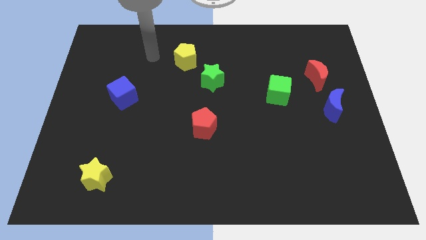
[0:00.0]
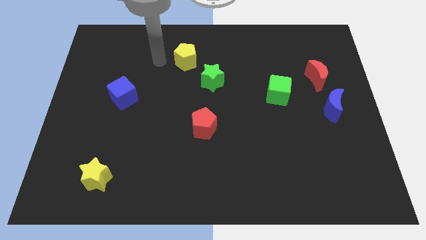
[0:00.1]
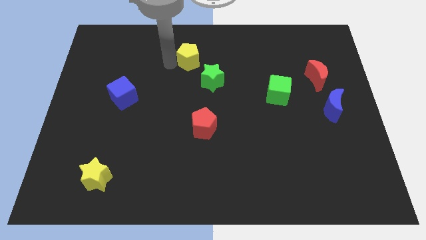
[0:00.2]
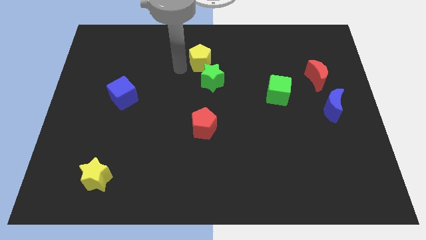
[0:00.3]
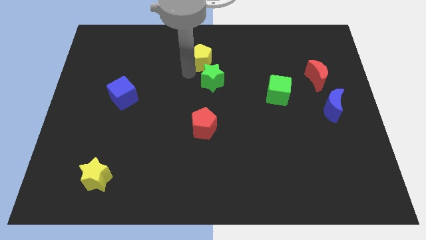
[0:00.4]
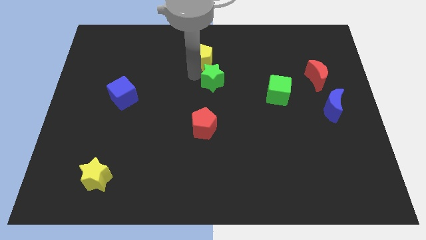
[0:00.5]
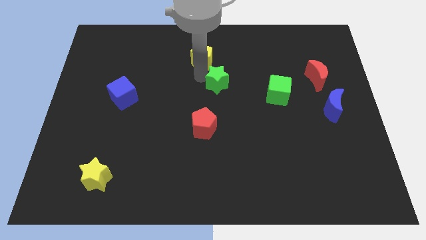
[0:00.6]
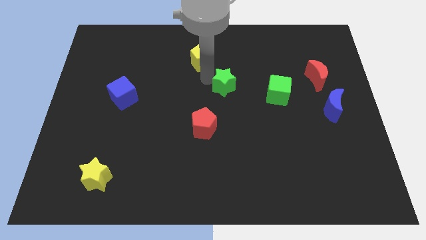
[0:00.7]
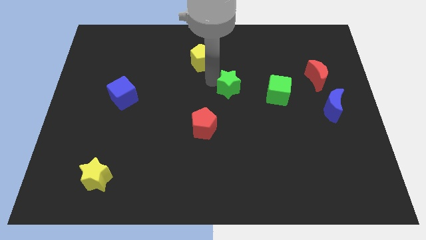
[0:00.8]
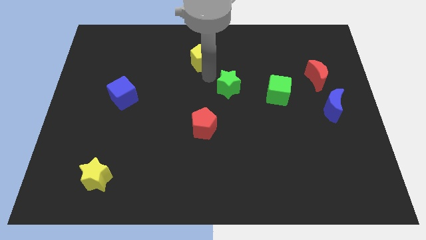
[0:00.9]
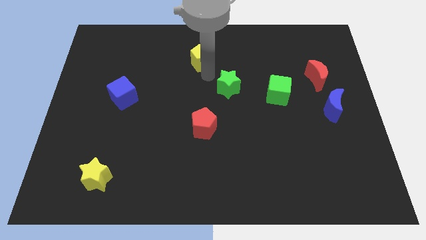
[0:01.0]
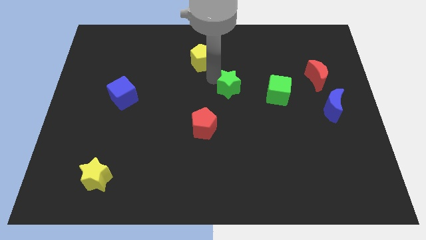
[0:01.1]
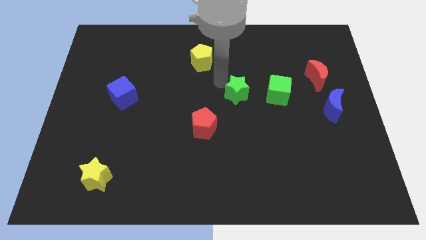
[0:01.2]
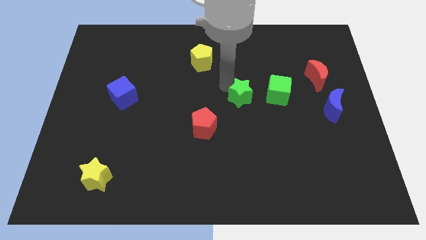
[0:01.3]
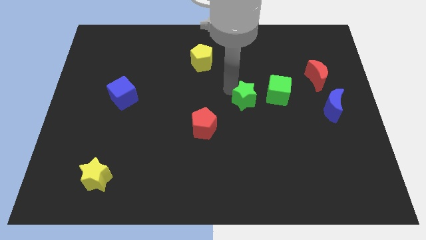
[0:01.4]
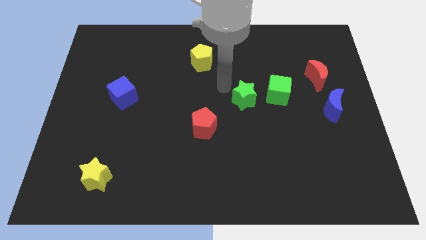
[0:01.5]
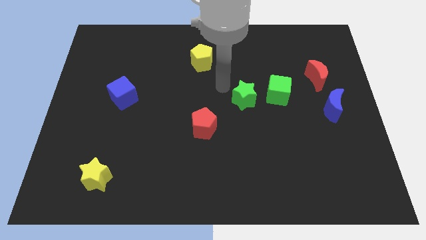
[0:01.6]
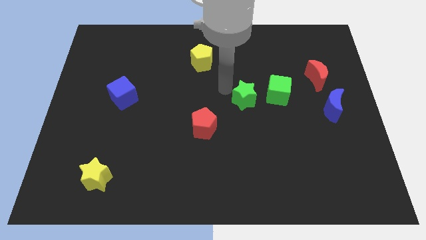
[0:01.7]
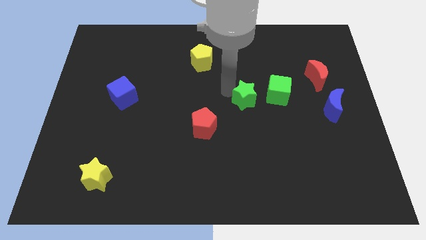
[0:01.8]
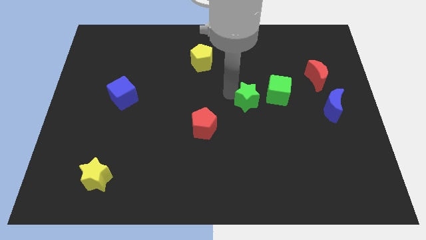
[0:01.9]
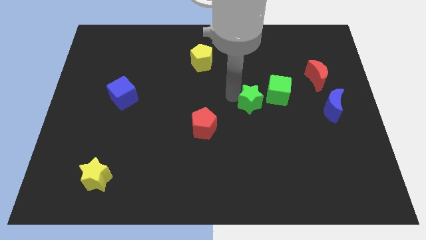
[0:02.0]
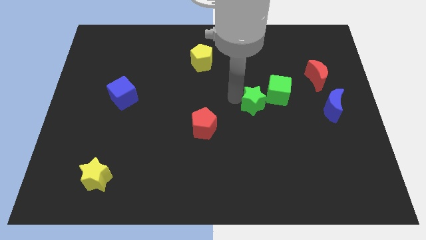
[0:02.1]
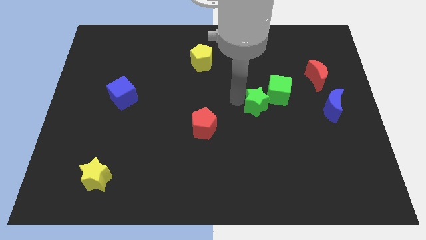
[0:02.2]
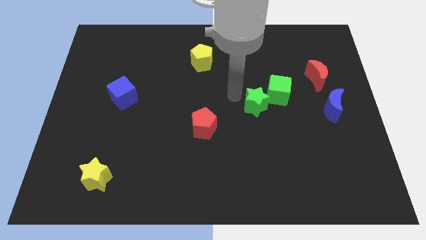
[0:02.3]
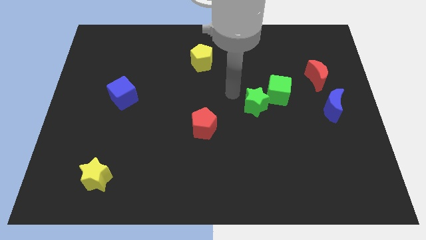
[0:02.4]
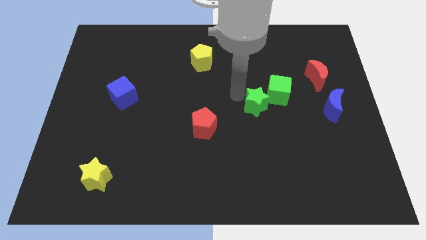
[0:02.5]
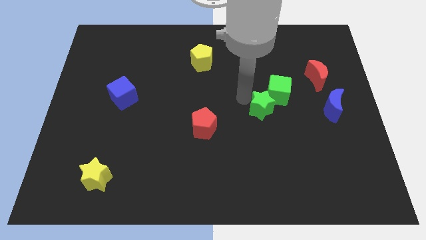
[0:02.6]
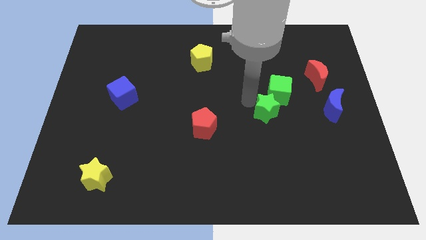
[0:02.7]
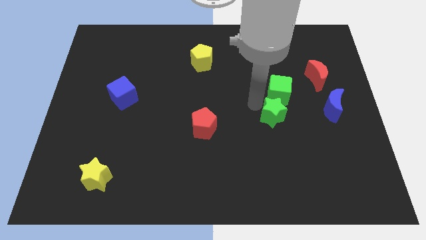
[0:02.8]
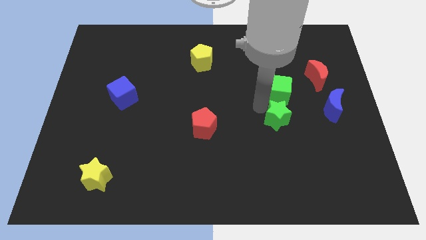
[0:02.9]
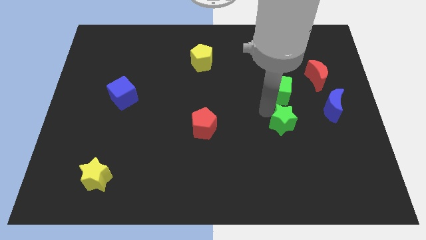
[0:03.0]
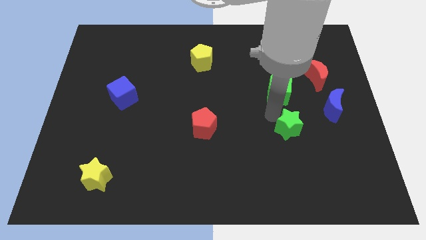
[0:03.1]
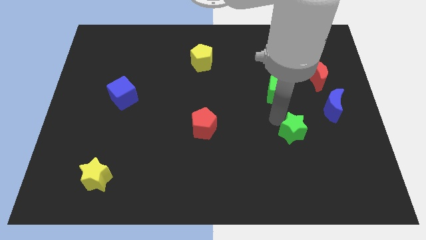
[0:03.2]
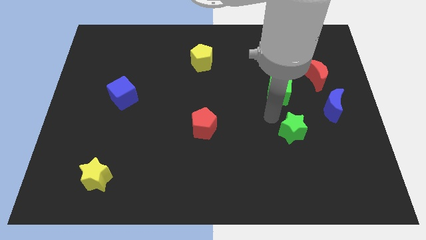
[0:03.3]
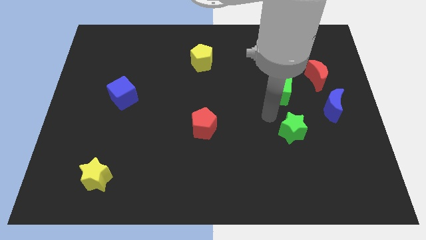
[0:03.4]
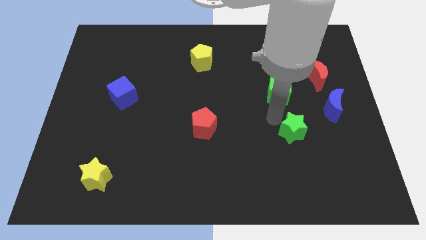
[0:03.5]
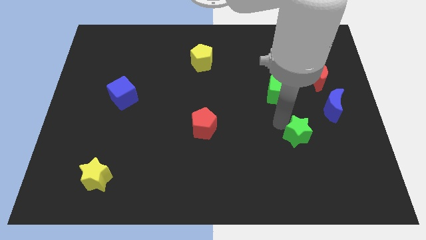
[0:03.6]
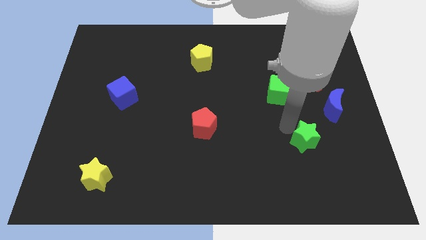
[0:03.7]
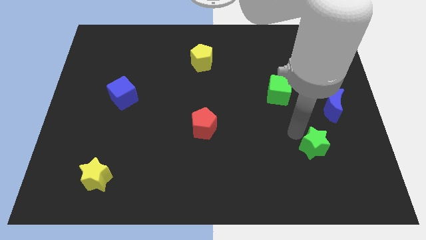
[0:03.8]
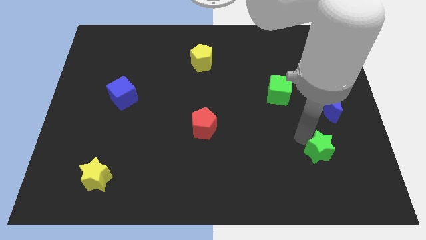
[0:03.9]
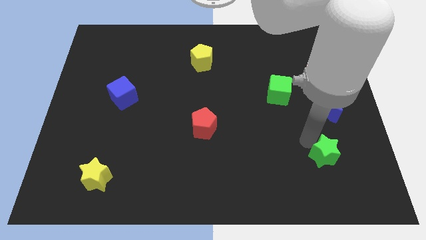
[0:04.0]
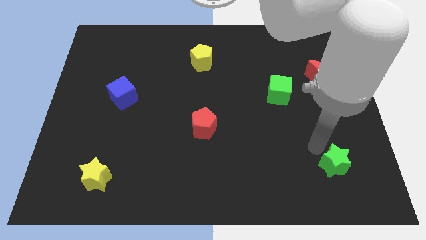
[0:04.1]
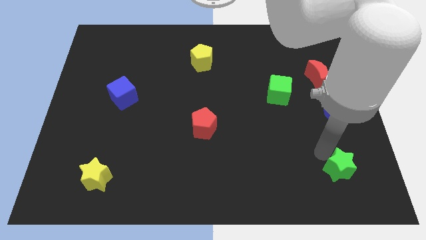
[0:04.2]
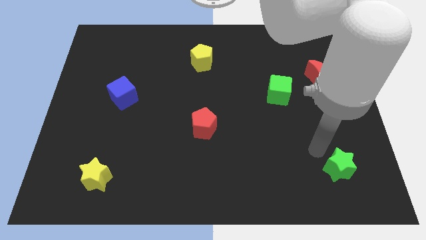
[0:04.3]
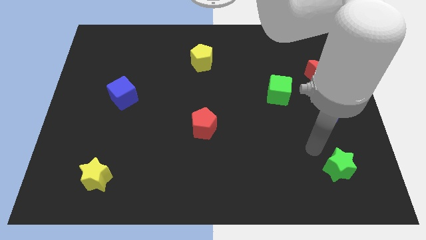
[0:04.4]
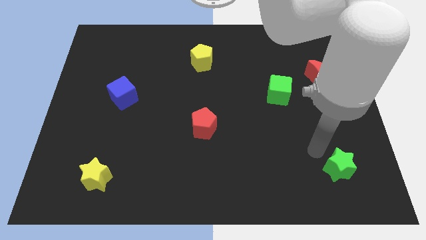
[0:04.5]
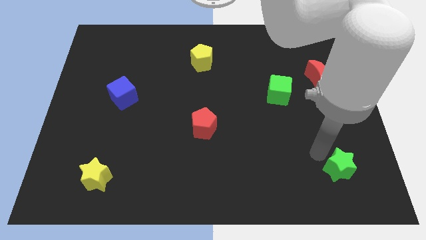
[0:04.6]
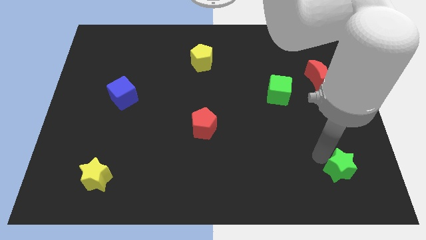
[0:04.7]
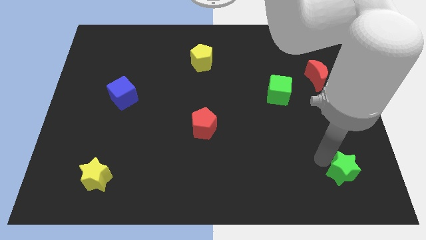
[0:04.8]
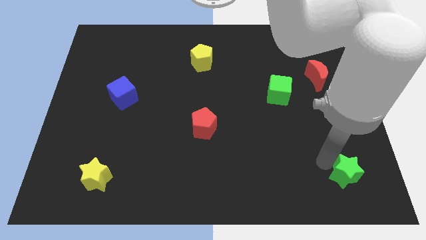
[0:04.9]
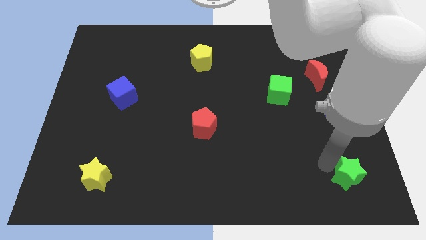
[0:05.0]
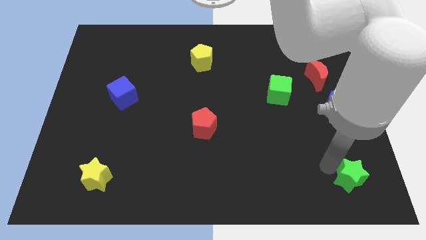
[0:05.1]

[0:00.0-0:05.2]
slide the green star to the bottom right corner

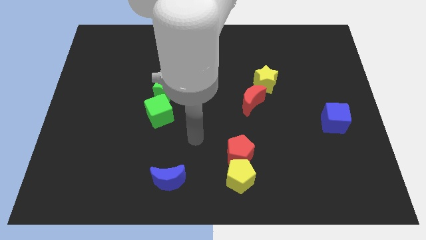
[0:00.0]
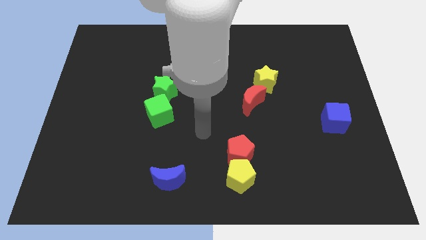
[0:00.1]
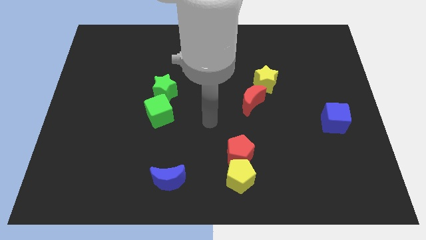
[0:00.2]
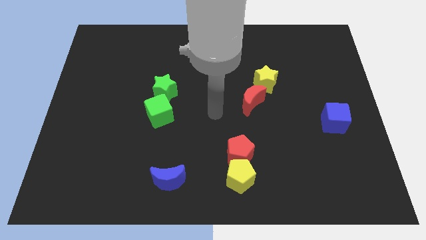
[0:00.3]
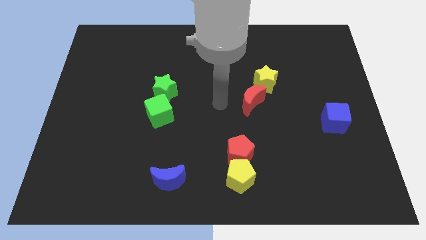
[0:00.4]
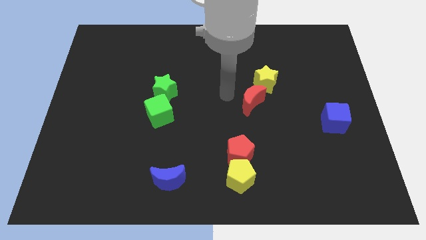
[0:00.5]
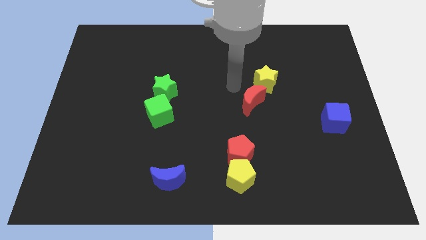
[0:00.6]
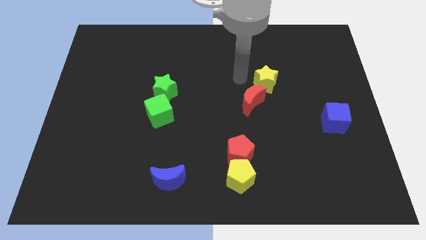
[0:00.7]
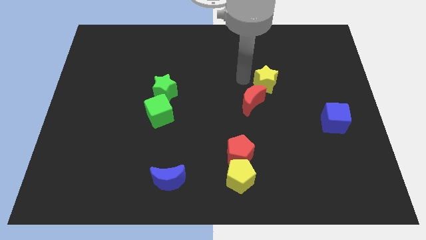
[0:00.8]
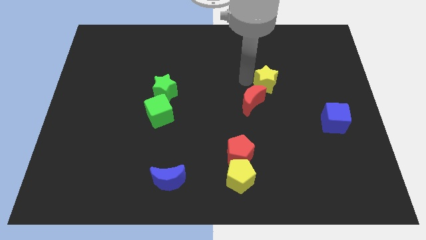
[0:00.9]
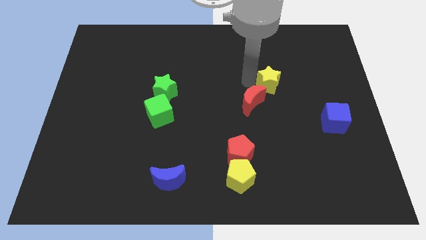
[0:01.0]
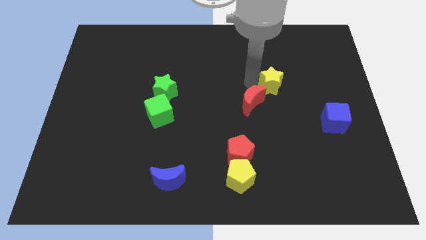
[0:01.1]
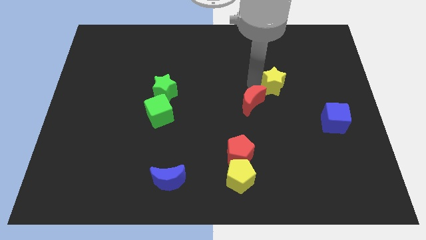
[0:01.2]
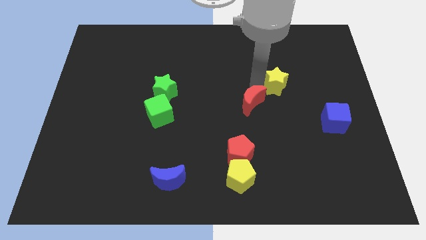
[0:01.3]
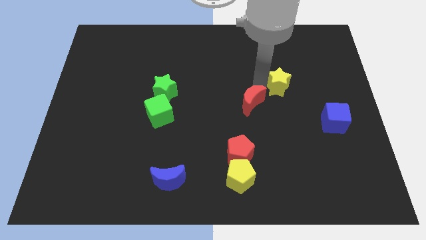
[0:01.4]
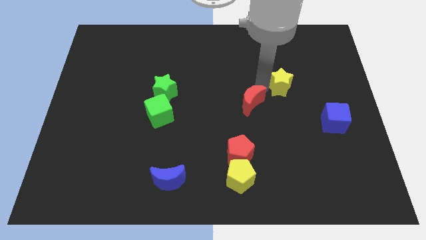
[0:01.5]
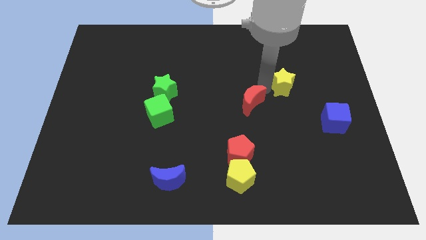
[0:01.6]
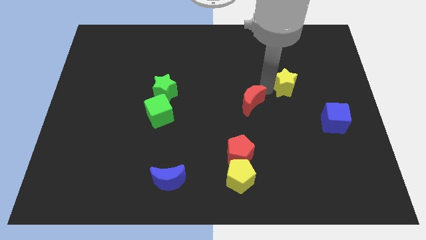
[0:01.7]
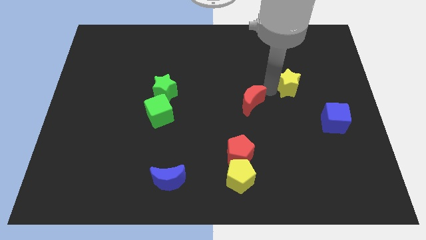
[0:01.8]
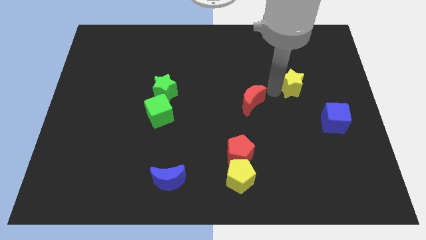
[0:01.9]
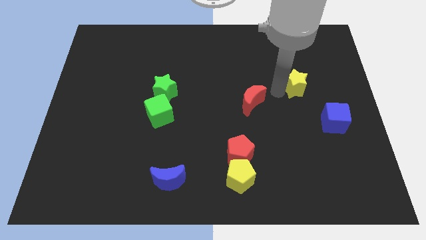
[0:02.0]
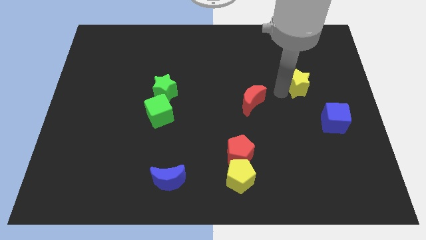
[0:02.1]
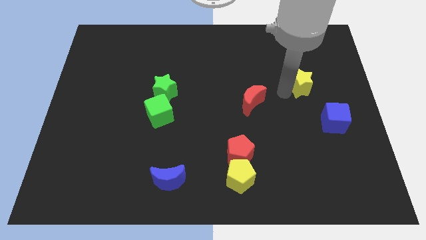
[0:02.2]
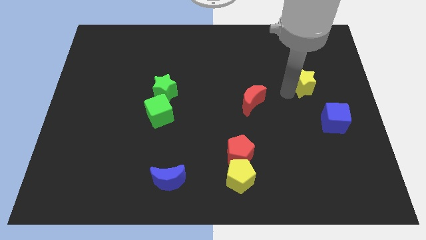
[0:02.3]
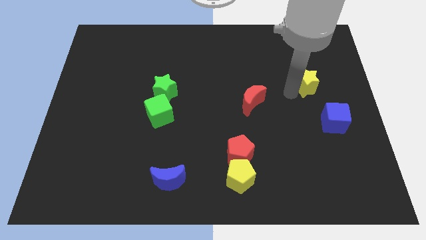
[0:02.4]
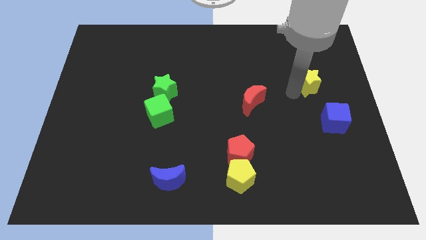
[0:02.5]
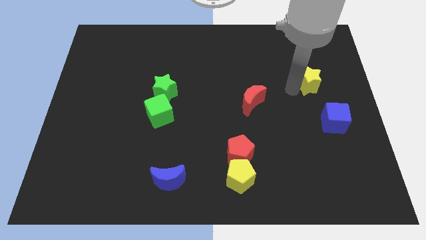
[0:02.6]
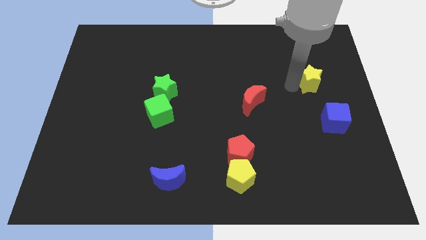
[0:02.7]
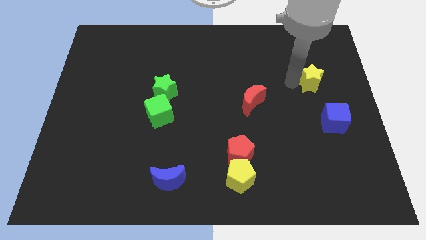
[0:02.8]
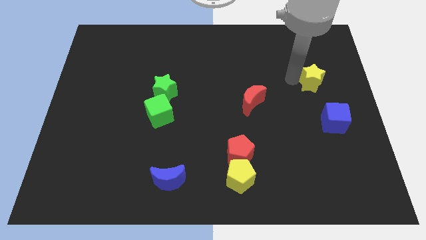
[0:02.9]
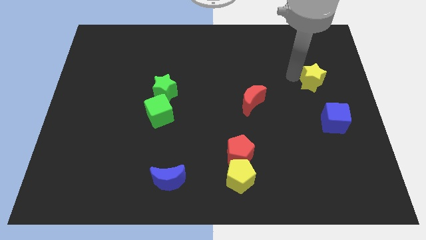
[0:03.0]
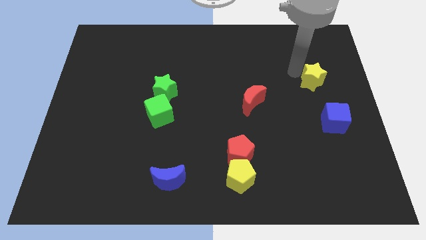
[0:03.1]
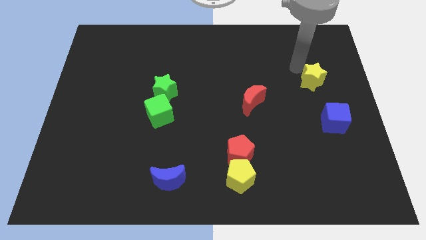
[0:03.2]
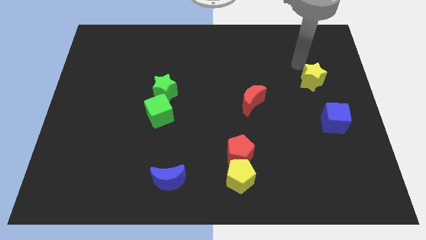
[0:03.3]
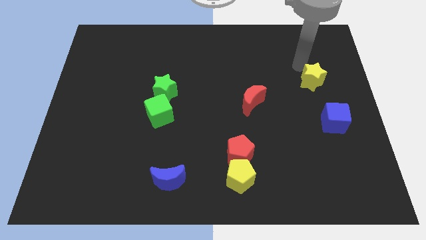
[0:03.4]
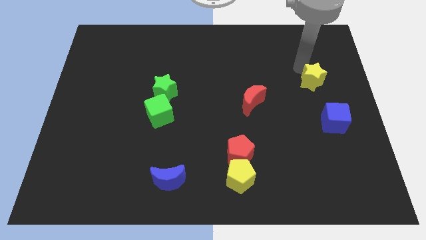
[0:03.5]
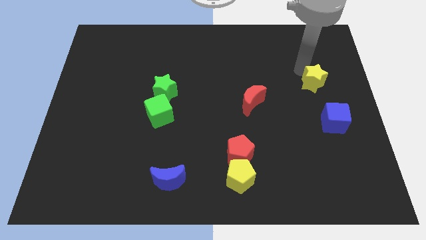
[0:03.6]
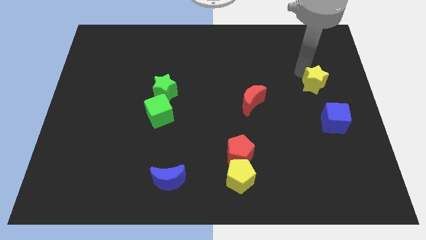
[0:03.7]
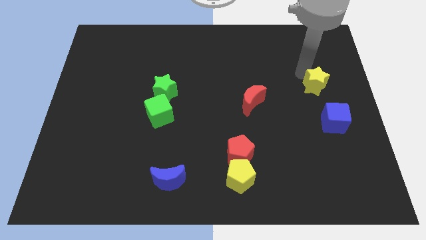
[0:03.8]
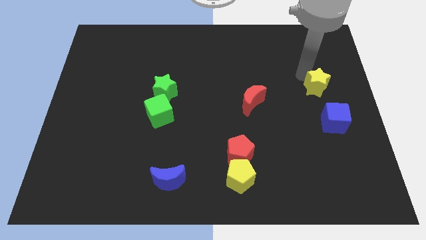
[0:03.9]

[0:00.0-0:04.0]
put the yellow star to the center right
